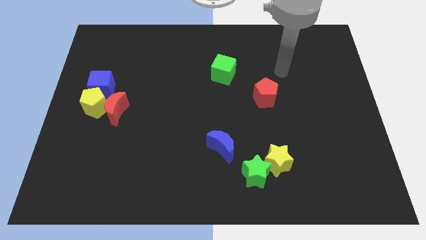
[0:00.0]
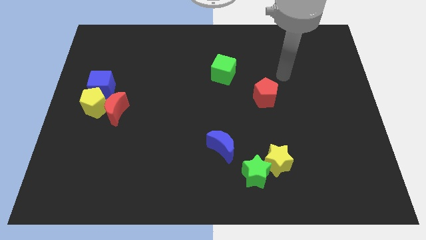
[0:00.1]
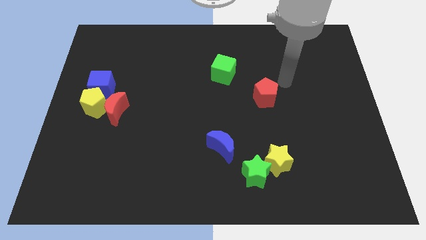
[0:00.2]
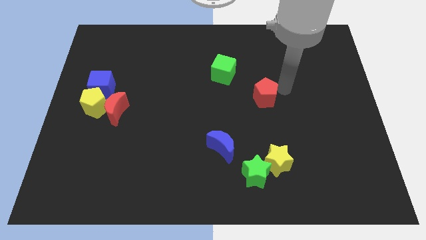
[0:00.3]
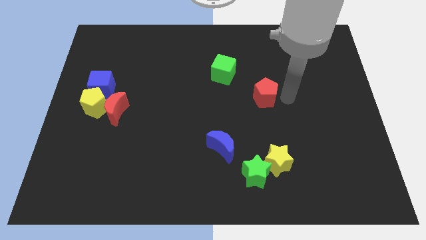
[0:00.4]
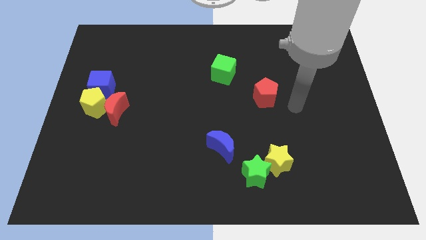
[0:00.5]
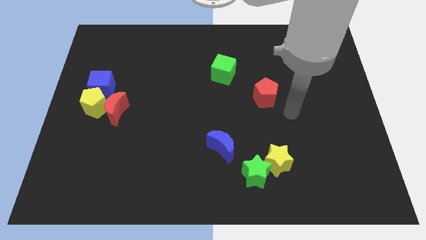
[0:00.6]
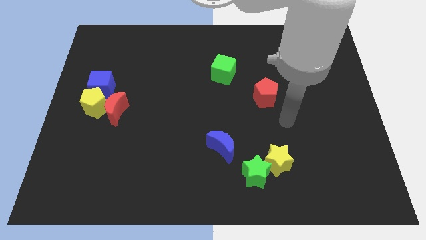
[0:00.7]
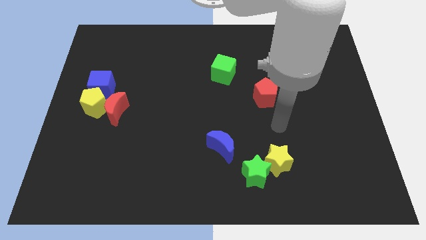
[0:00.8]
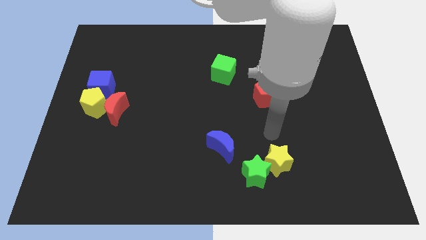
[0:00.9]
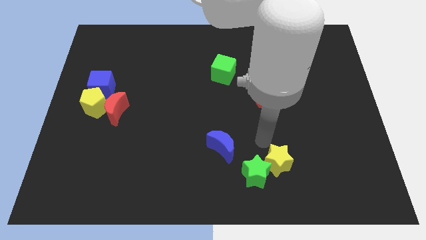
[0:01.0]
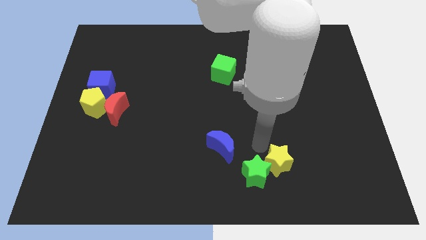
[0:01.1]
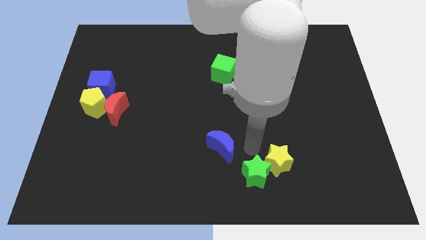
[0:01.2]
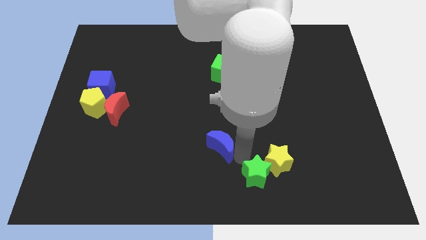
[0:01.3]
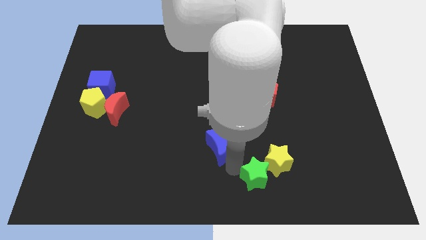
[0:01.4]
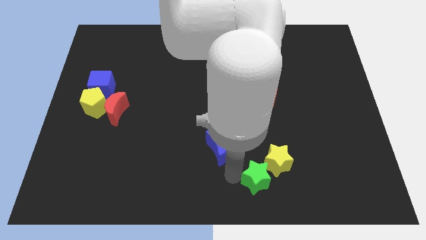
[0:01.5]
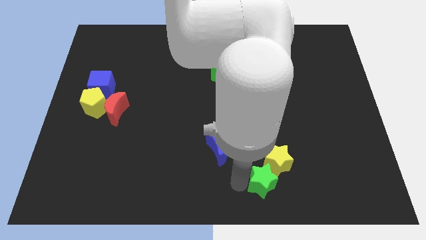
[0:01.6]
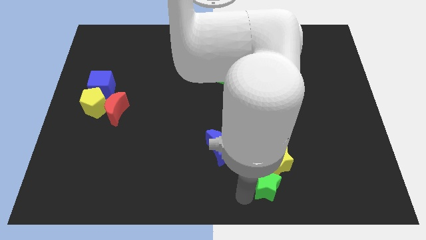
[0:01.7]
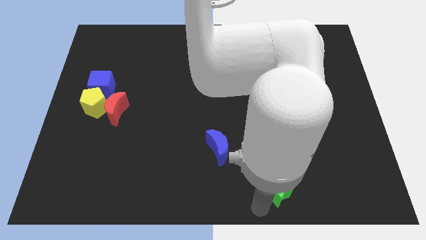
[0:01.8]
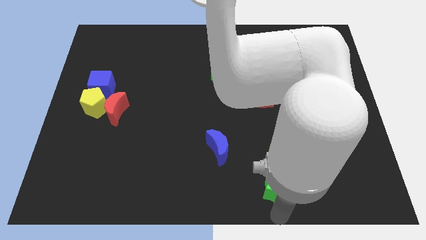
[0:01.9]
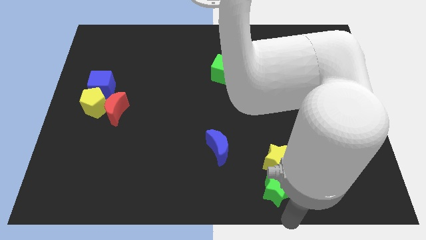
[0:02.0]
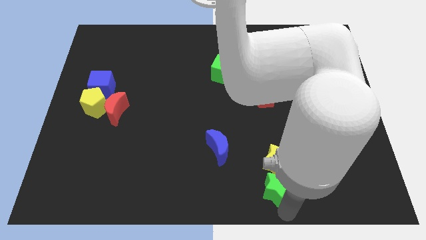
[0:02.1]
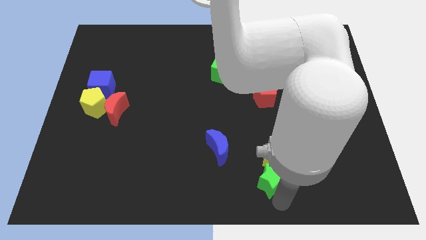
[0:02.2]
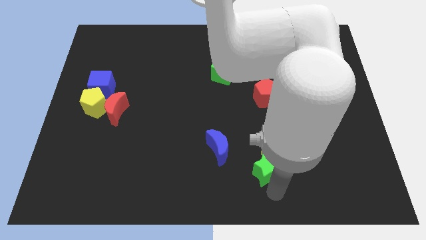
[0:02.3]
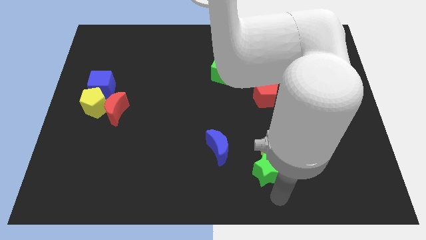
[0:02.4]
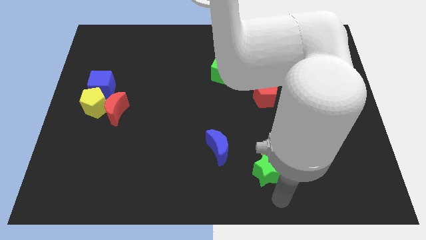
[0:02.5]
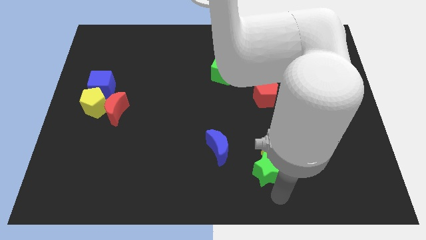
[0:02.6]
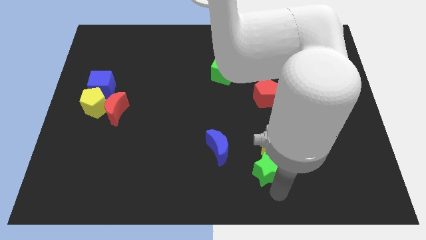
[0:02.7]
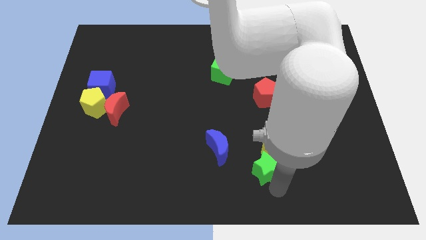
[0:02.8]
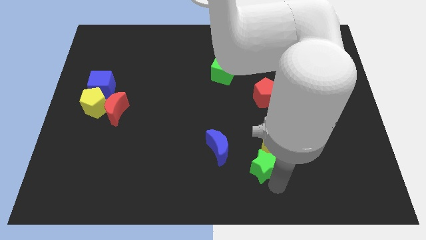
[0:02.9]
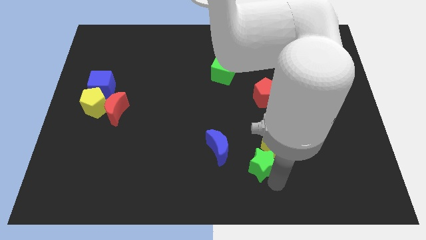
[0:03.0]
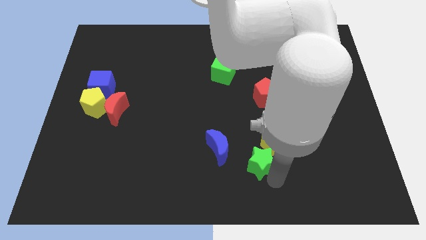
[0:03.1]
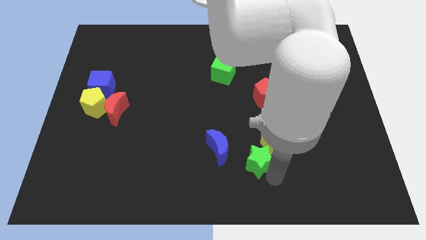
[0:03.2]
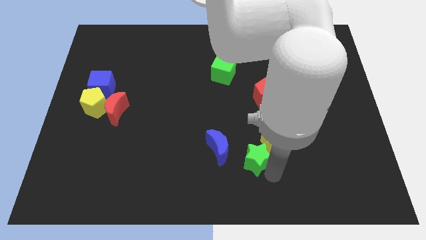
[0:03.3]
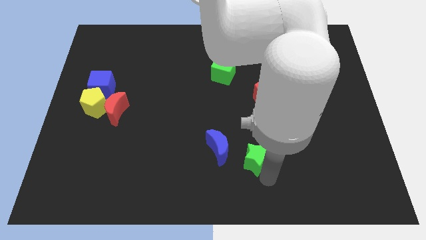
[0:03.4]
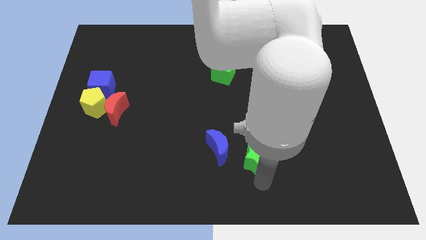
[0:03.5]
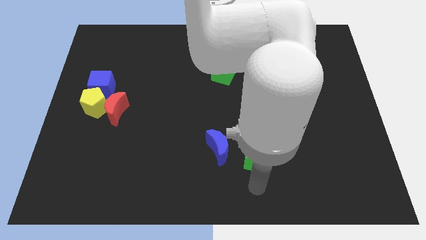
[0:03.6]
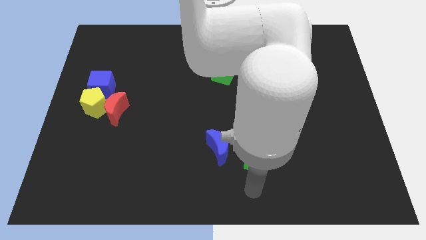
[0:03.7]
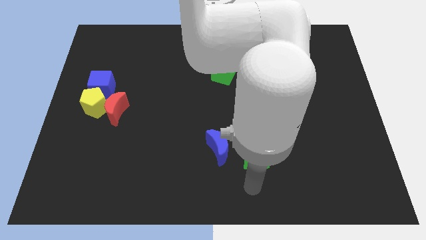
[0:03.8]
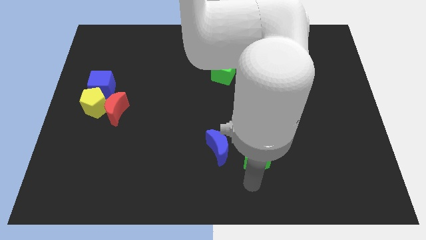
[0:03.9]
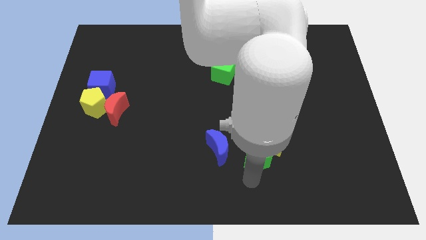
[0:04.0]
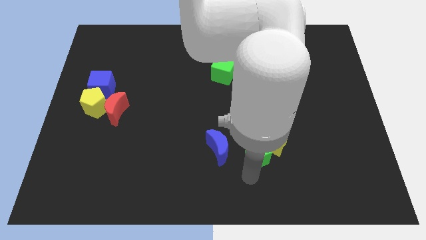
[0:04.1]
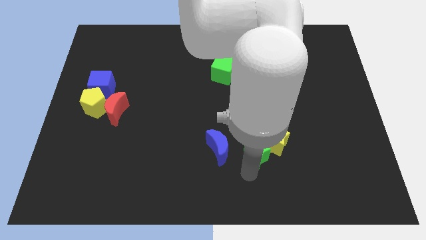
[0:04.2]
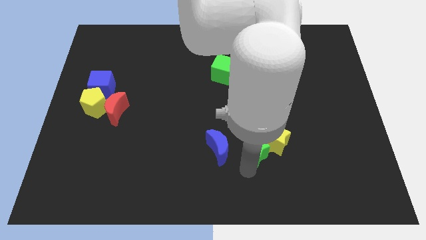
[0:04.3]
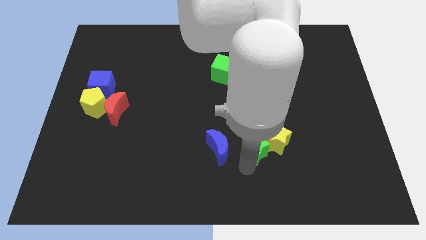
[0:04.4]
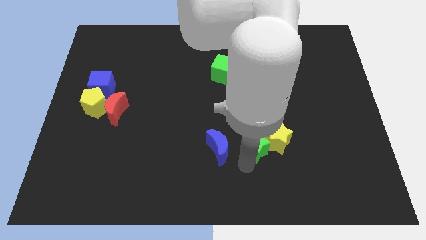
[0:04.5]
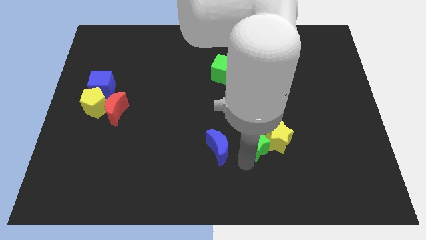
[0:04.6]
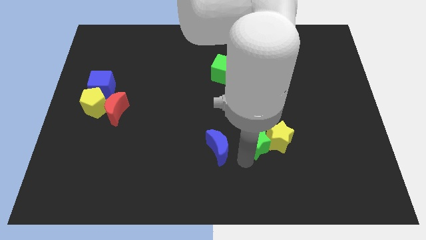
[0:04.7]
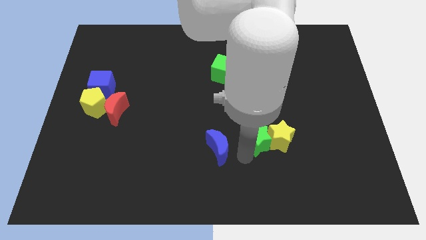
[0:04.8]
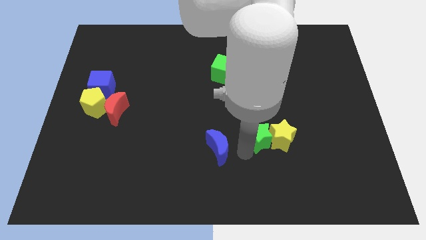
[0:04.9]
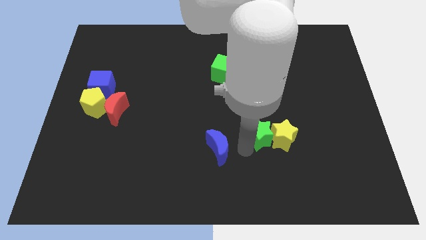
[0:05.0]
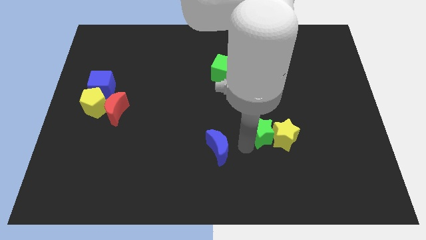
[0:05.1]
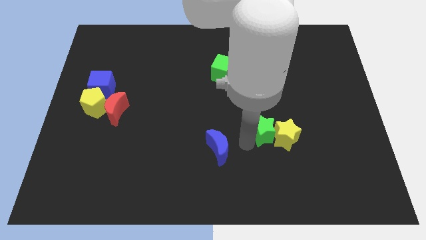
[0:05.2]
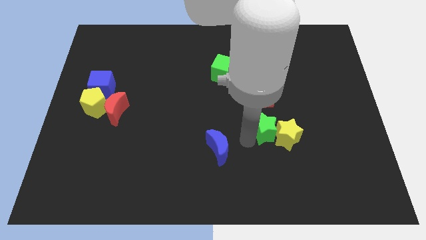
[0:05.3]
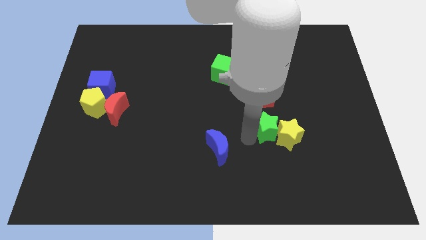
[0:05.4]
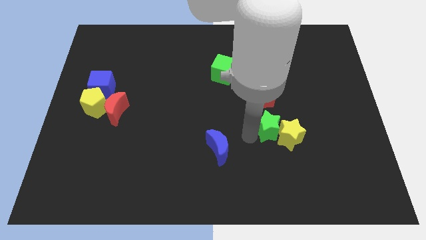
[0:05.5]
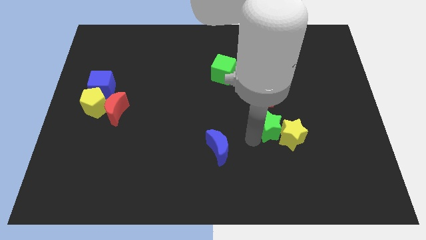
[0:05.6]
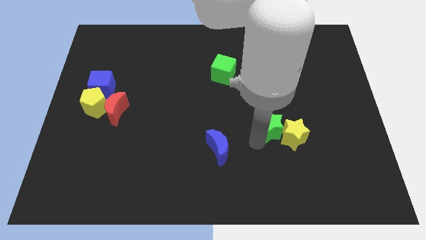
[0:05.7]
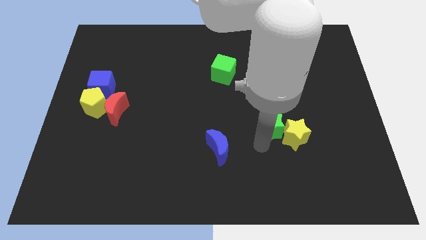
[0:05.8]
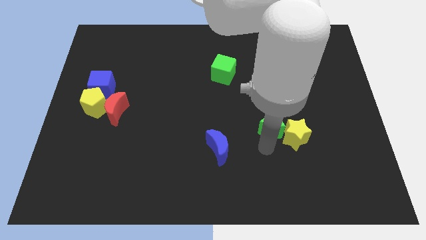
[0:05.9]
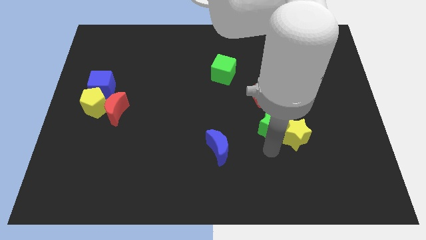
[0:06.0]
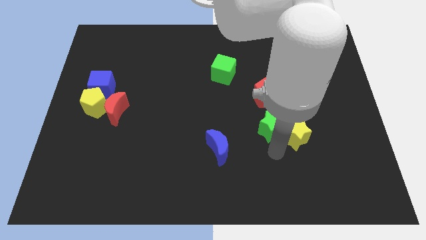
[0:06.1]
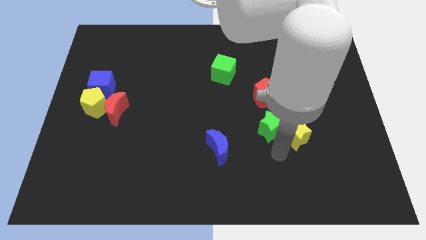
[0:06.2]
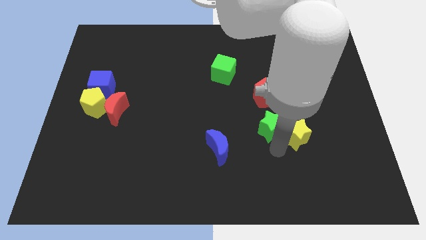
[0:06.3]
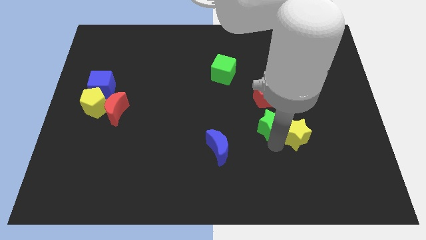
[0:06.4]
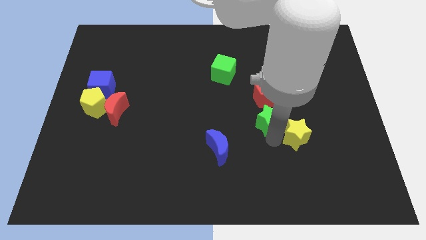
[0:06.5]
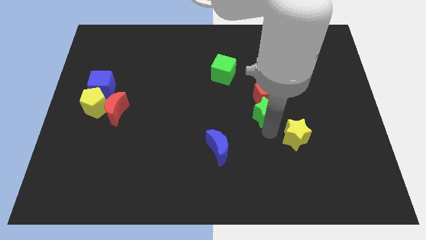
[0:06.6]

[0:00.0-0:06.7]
move the green star next to the red pentagon
